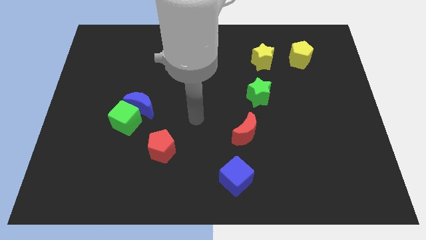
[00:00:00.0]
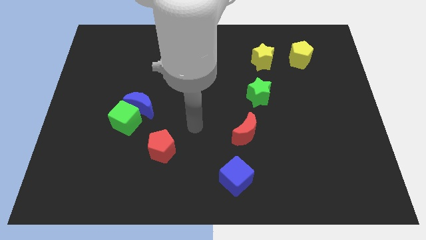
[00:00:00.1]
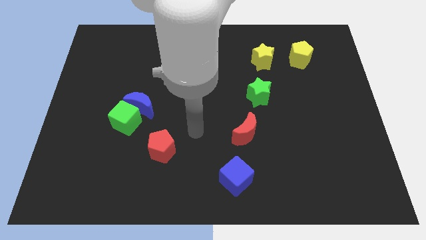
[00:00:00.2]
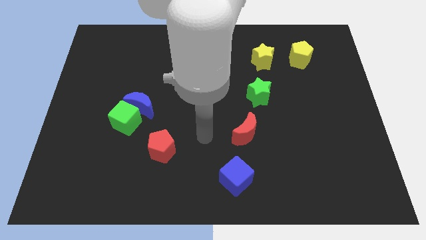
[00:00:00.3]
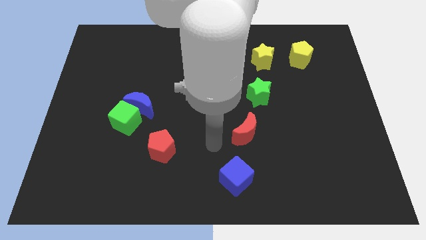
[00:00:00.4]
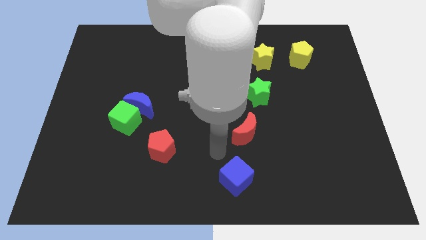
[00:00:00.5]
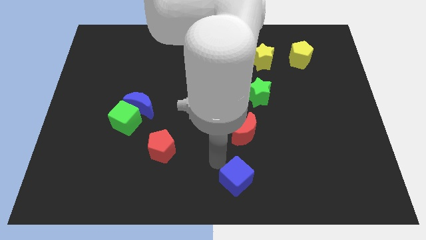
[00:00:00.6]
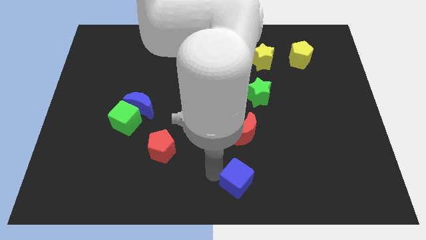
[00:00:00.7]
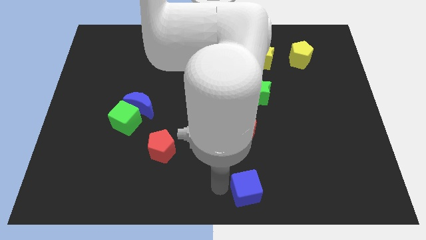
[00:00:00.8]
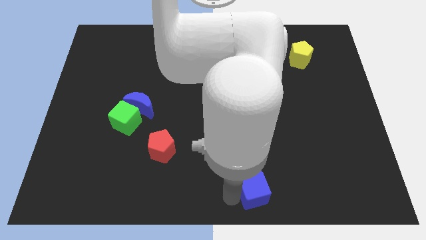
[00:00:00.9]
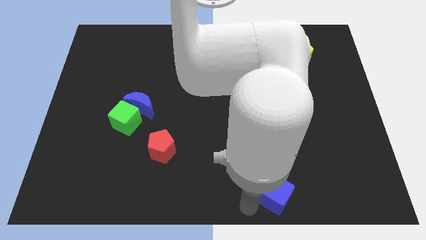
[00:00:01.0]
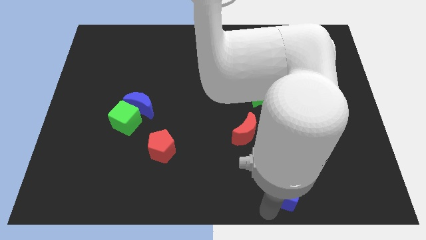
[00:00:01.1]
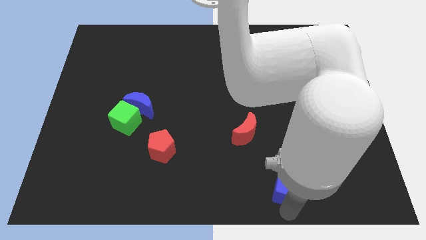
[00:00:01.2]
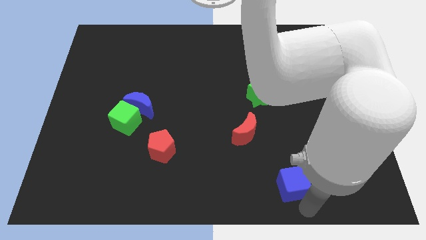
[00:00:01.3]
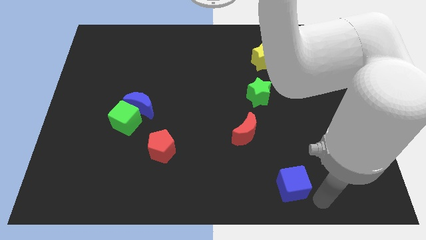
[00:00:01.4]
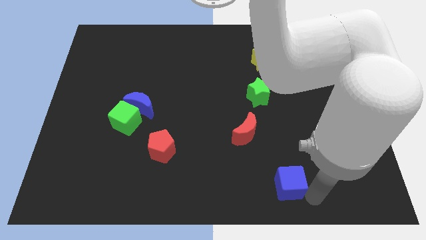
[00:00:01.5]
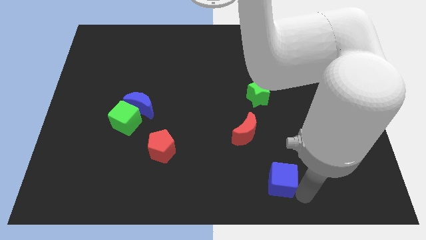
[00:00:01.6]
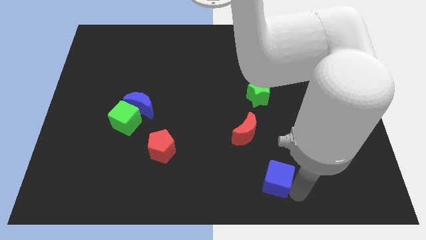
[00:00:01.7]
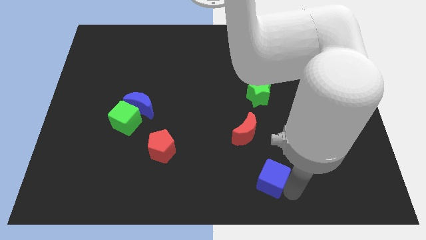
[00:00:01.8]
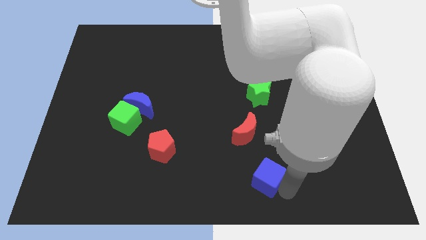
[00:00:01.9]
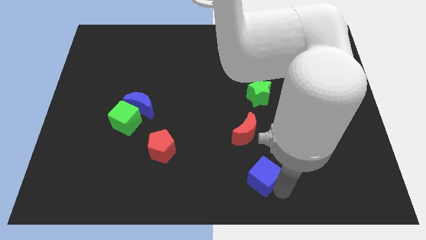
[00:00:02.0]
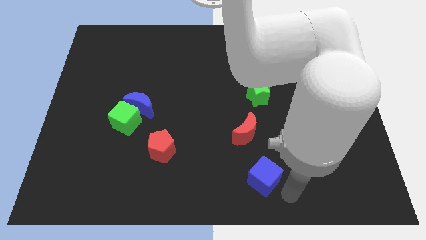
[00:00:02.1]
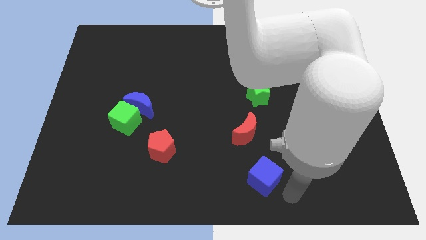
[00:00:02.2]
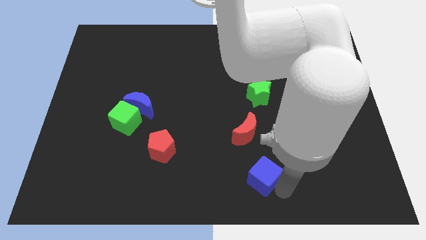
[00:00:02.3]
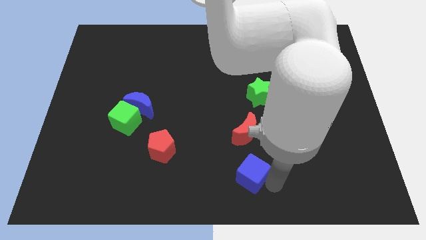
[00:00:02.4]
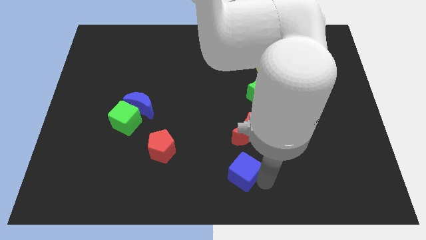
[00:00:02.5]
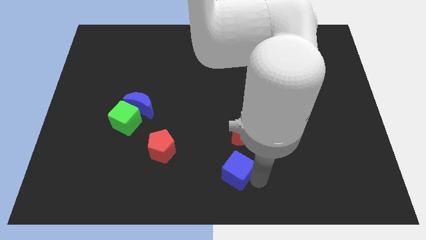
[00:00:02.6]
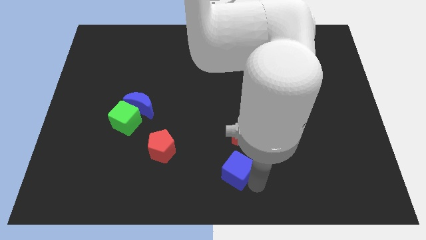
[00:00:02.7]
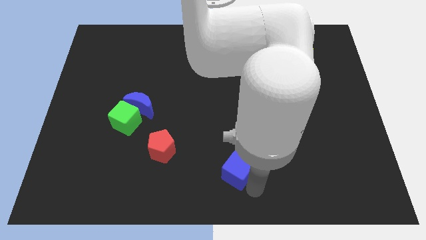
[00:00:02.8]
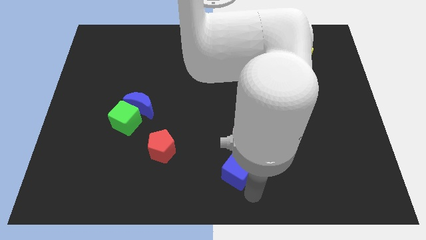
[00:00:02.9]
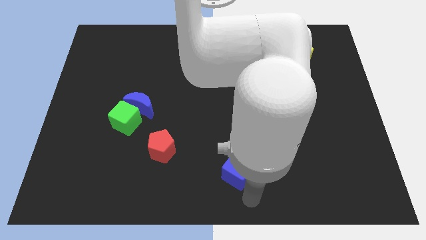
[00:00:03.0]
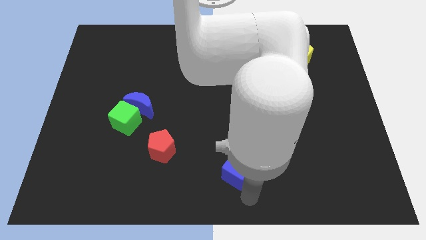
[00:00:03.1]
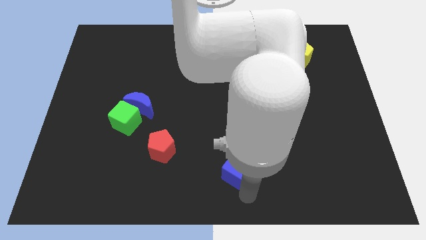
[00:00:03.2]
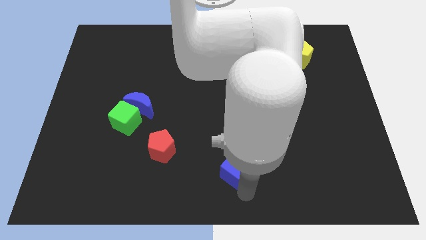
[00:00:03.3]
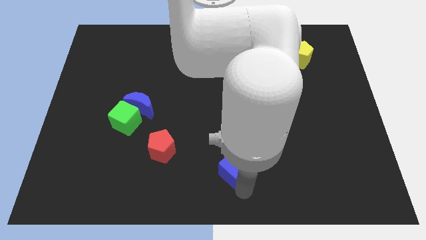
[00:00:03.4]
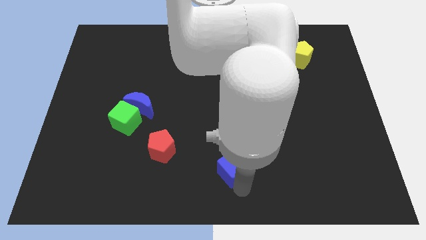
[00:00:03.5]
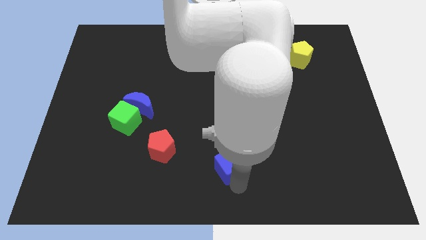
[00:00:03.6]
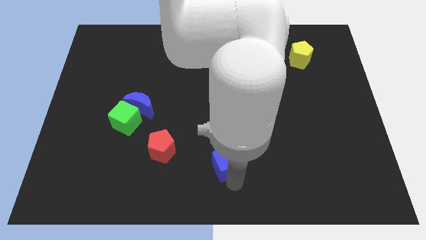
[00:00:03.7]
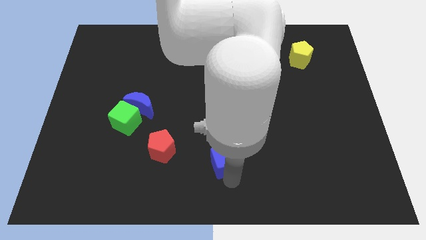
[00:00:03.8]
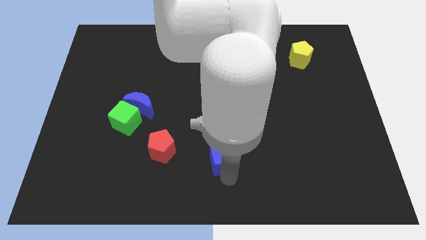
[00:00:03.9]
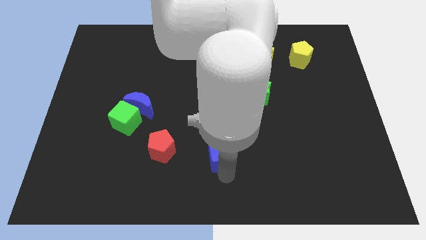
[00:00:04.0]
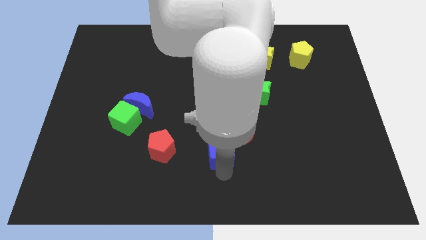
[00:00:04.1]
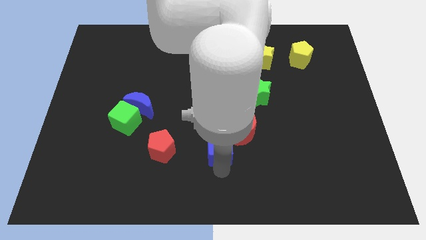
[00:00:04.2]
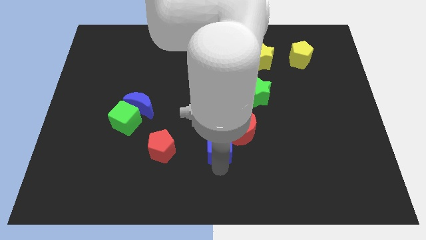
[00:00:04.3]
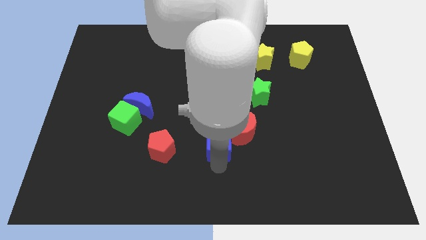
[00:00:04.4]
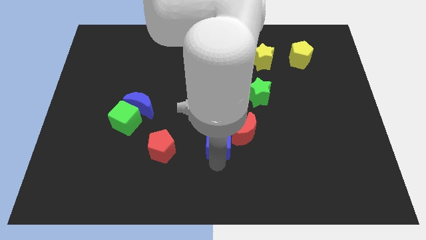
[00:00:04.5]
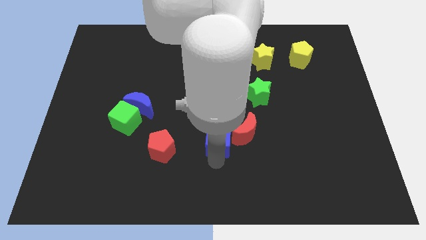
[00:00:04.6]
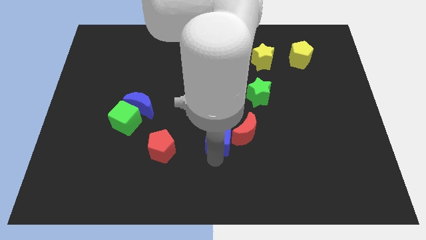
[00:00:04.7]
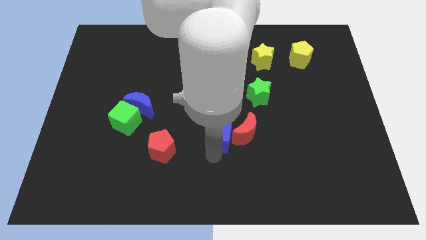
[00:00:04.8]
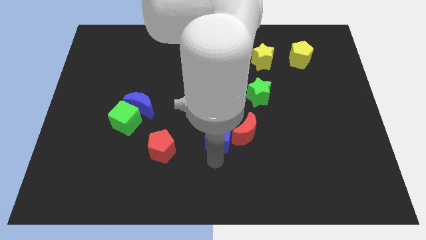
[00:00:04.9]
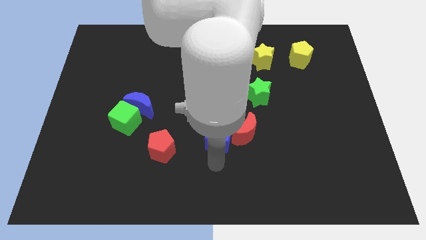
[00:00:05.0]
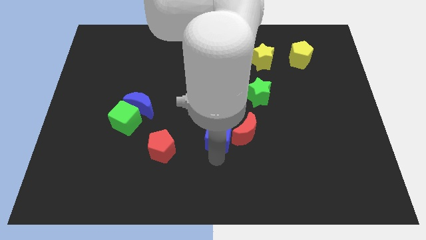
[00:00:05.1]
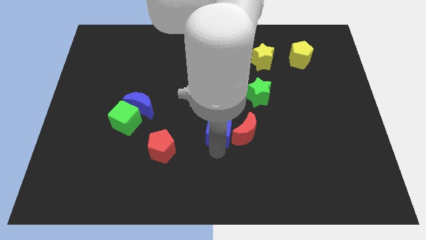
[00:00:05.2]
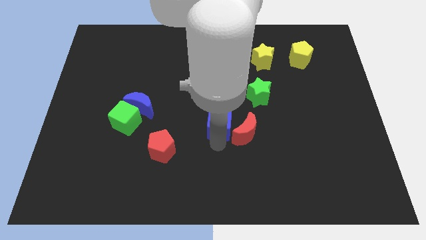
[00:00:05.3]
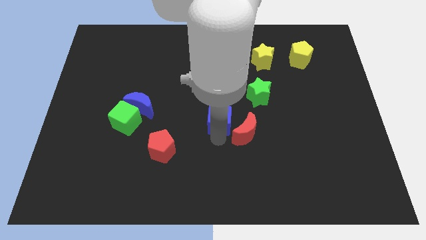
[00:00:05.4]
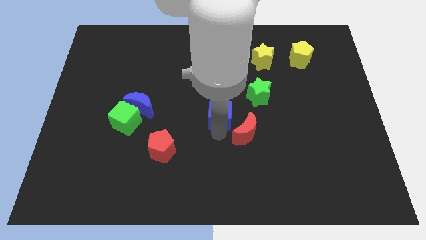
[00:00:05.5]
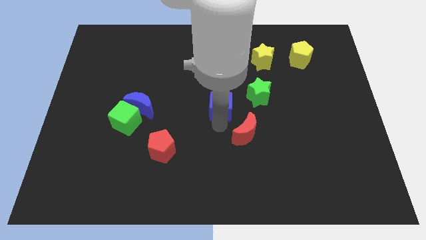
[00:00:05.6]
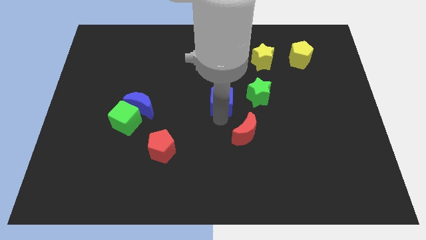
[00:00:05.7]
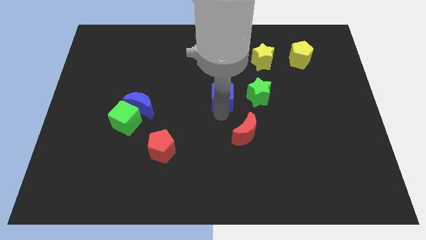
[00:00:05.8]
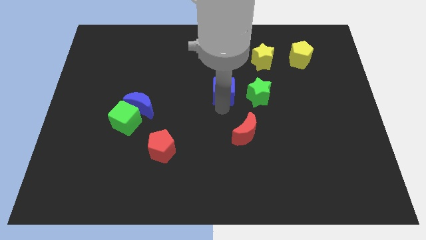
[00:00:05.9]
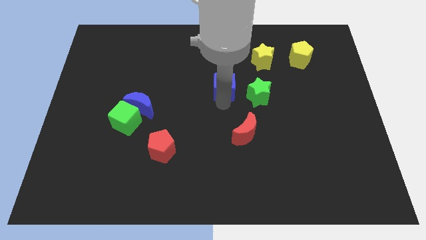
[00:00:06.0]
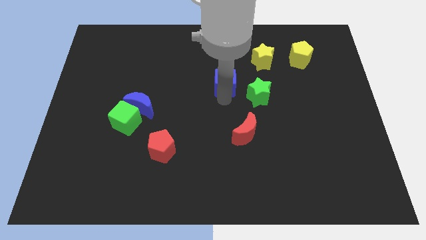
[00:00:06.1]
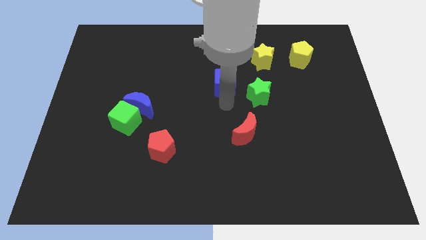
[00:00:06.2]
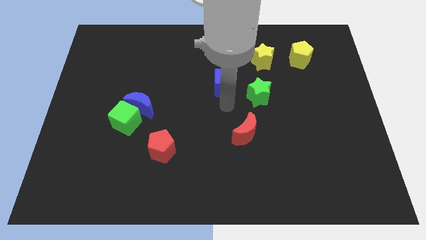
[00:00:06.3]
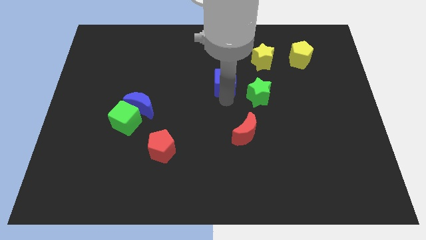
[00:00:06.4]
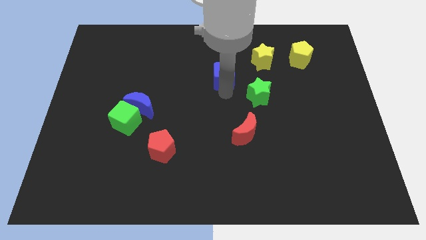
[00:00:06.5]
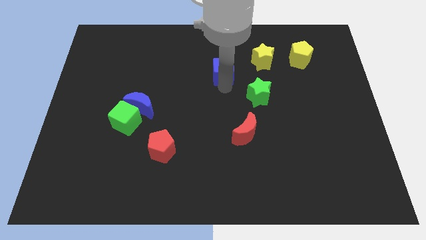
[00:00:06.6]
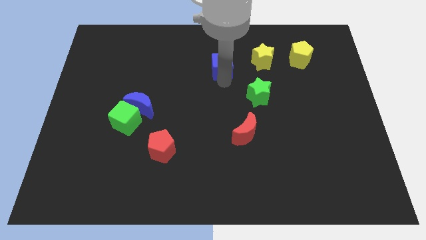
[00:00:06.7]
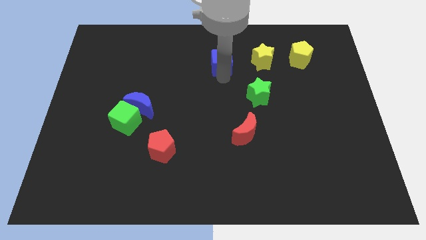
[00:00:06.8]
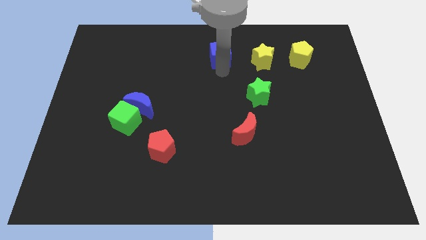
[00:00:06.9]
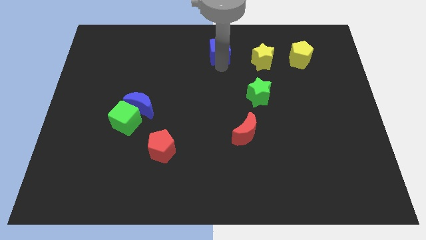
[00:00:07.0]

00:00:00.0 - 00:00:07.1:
move the blue cube to the top

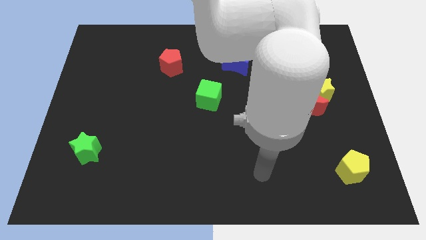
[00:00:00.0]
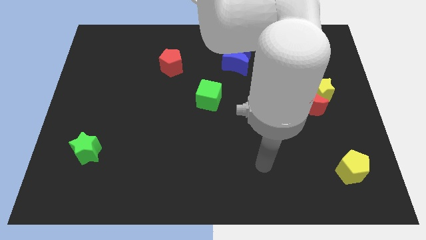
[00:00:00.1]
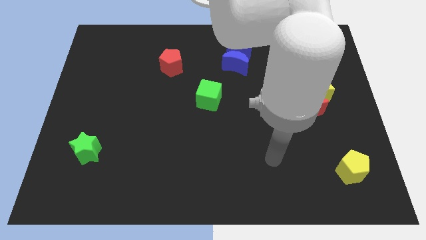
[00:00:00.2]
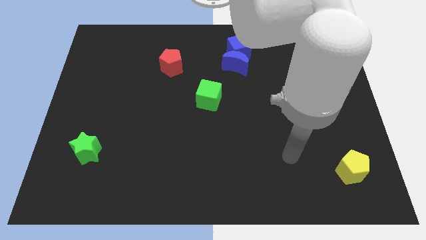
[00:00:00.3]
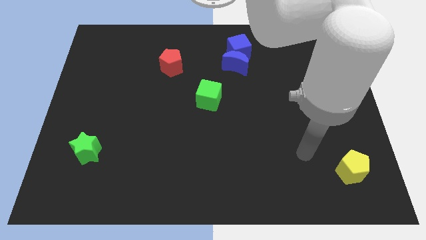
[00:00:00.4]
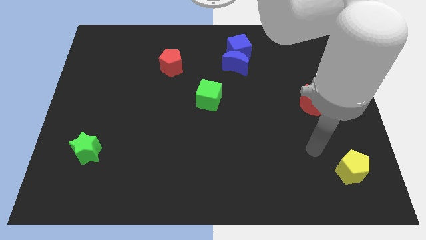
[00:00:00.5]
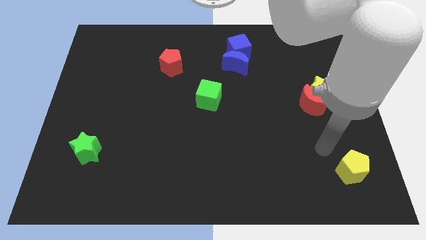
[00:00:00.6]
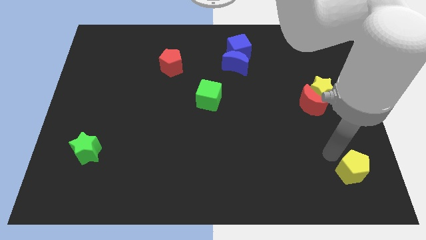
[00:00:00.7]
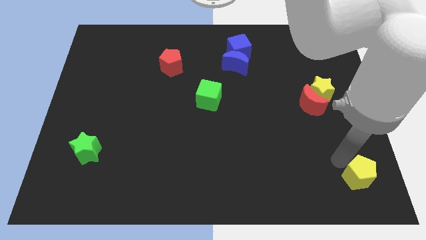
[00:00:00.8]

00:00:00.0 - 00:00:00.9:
move the yellow pentagon to the bottom right
